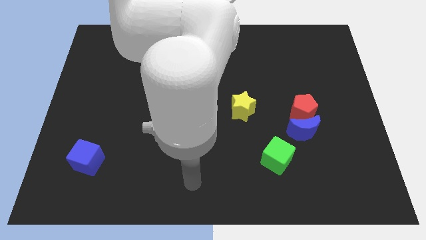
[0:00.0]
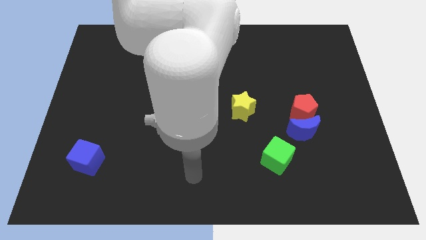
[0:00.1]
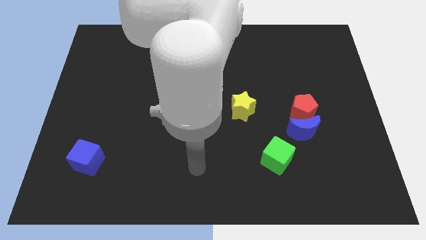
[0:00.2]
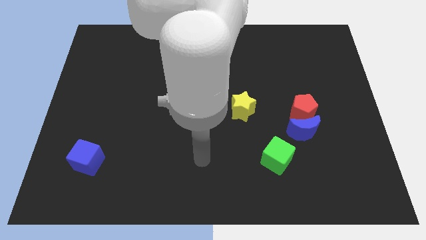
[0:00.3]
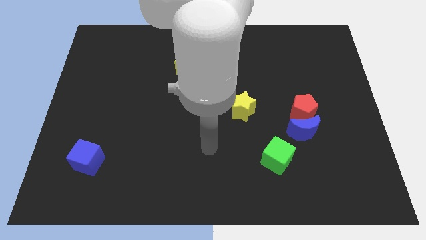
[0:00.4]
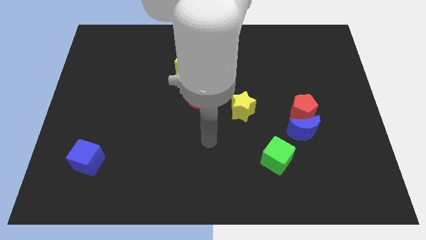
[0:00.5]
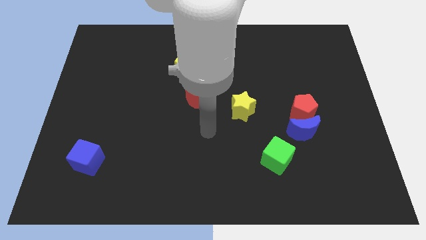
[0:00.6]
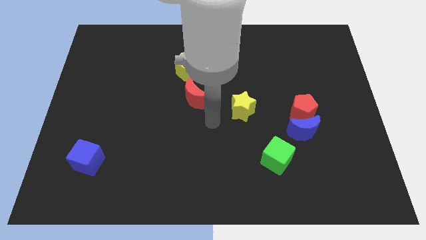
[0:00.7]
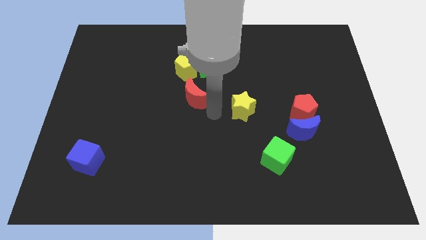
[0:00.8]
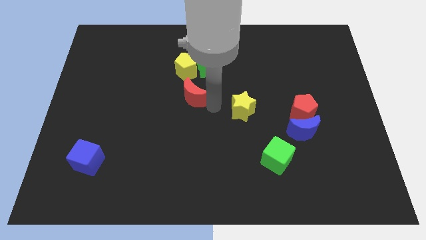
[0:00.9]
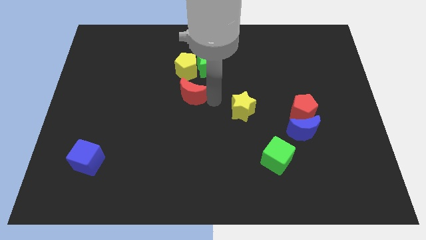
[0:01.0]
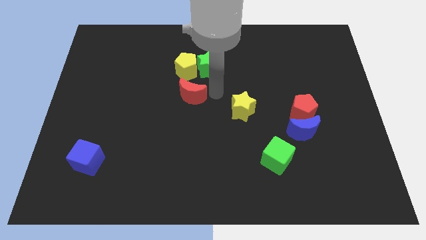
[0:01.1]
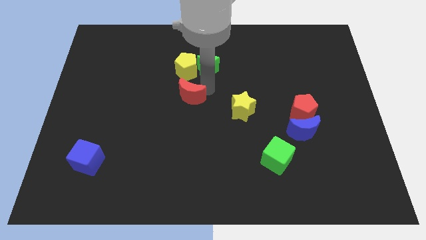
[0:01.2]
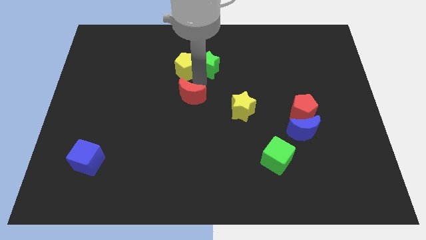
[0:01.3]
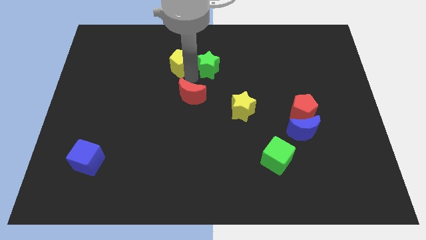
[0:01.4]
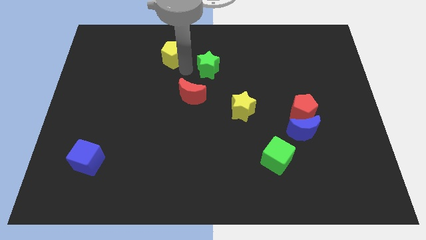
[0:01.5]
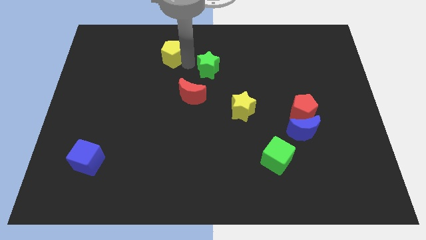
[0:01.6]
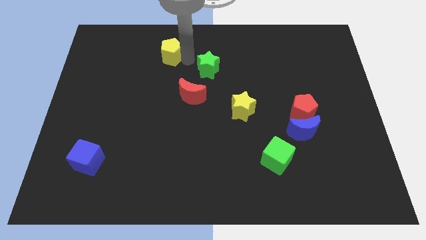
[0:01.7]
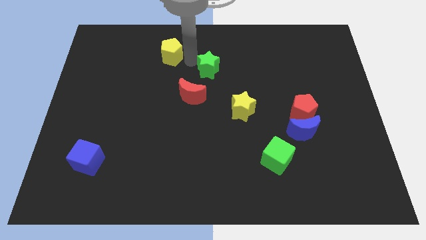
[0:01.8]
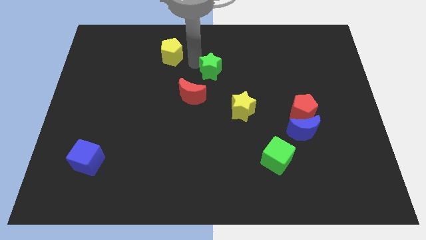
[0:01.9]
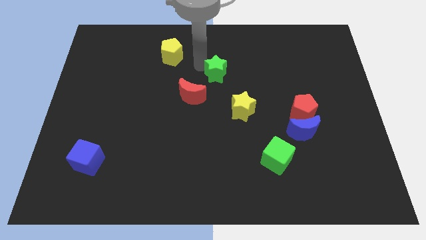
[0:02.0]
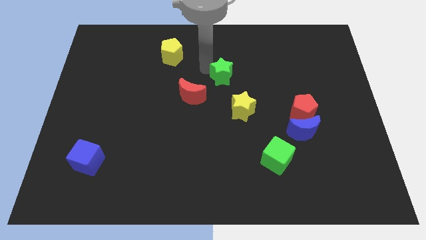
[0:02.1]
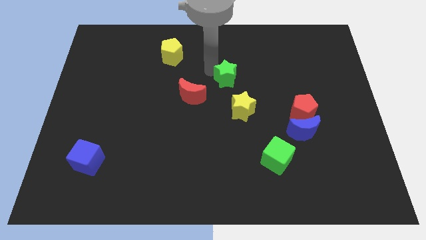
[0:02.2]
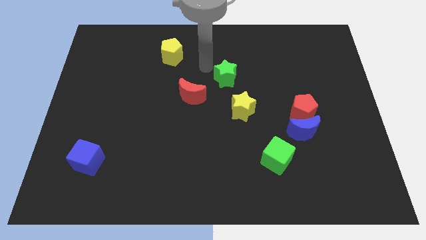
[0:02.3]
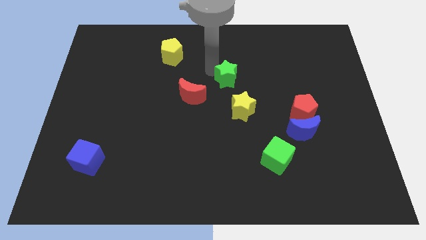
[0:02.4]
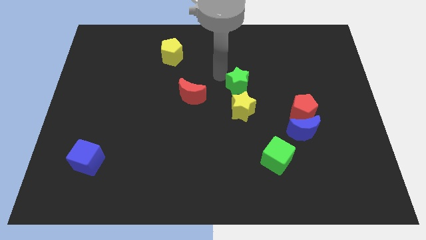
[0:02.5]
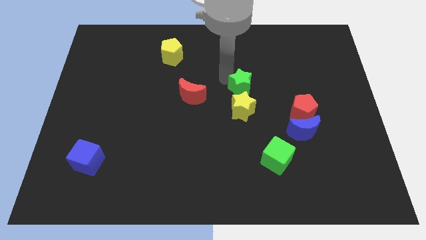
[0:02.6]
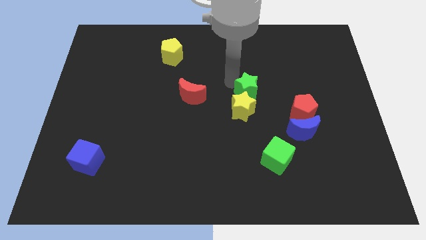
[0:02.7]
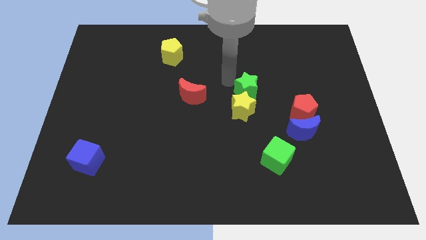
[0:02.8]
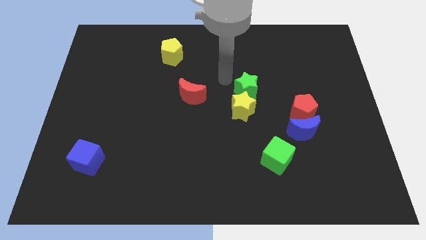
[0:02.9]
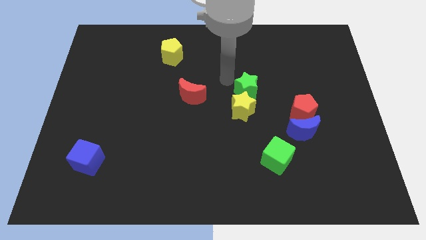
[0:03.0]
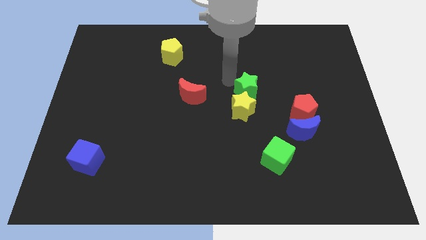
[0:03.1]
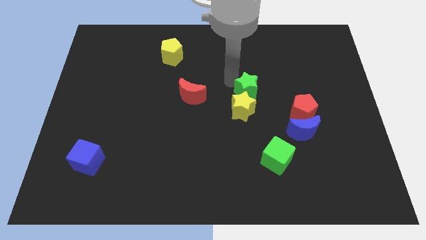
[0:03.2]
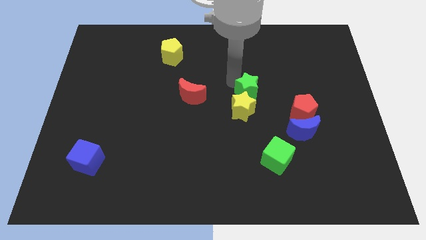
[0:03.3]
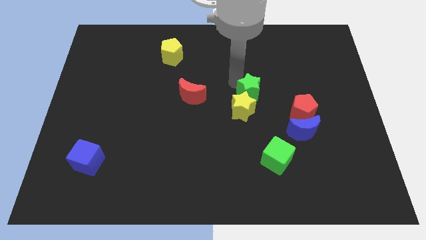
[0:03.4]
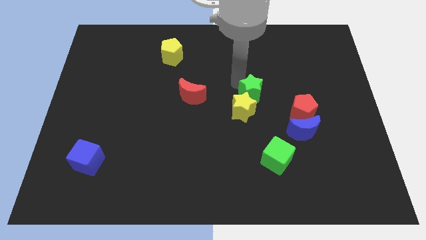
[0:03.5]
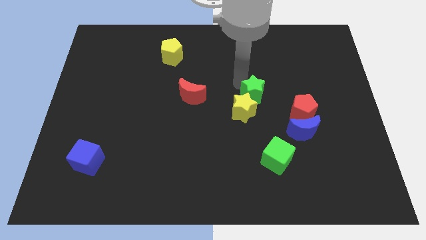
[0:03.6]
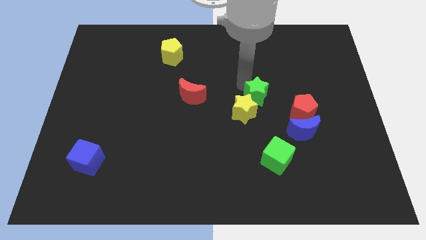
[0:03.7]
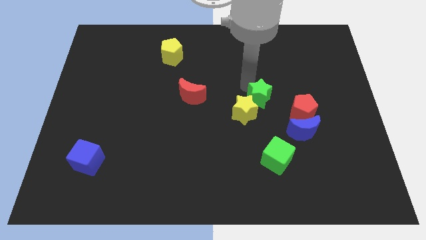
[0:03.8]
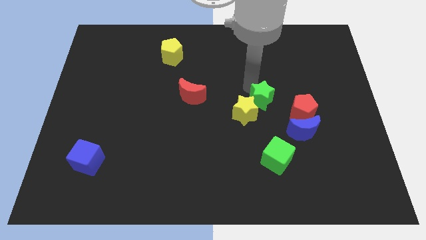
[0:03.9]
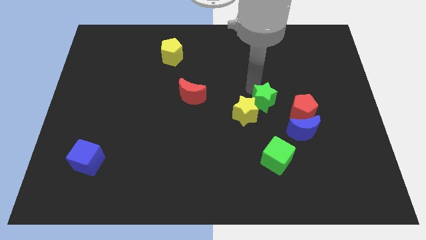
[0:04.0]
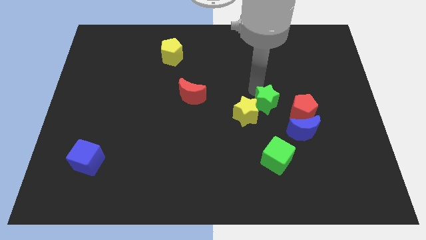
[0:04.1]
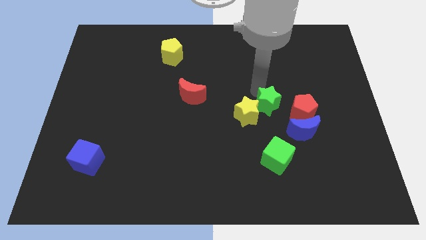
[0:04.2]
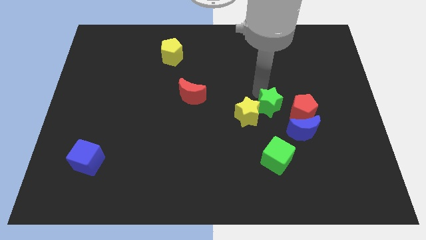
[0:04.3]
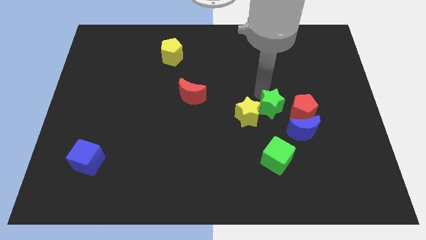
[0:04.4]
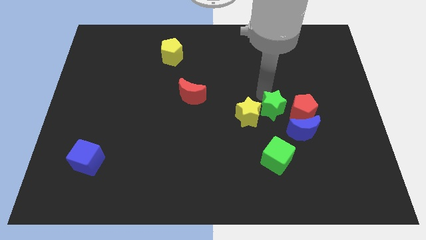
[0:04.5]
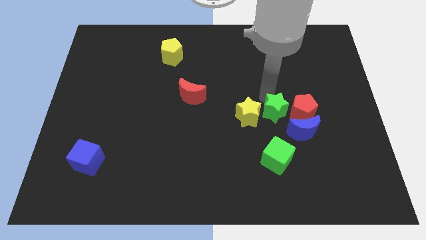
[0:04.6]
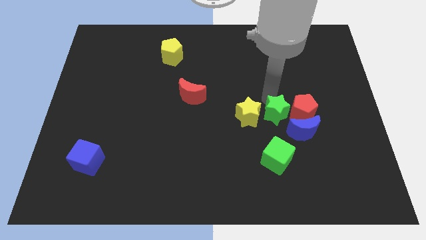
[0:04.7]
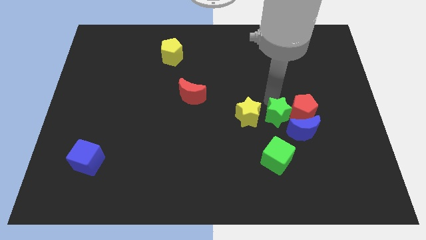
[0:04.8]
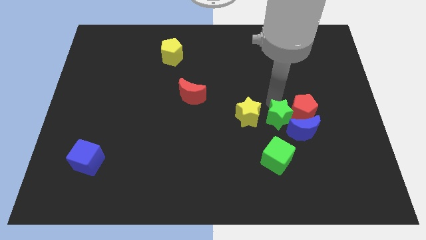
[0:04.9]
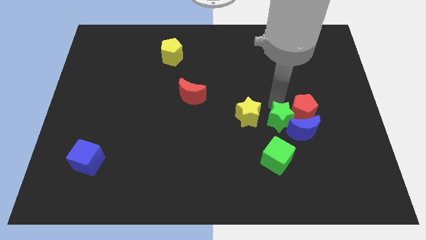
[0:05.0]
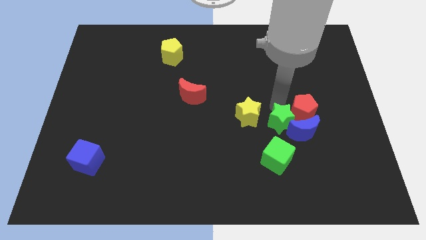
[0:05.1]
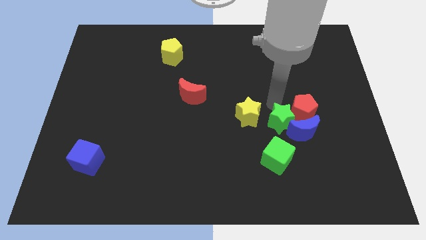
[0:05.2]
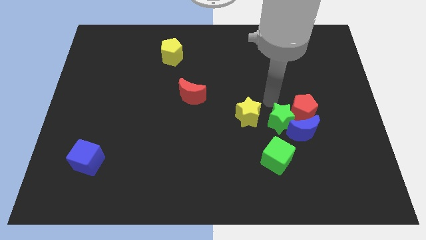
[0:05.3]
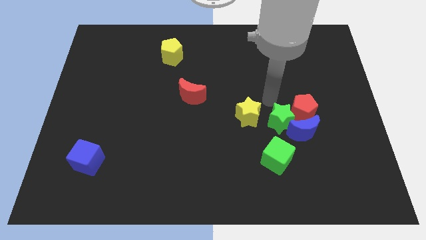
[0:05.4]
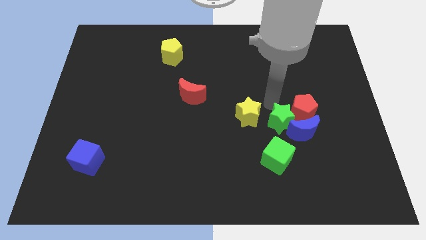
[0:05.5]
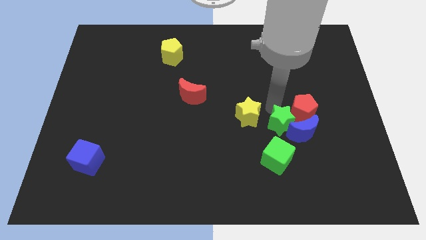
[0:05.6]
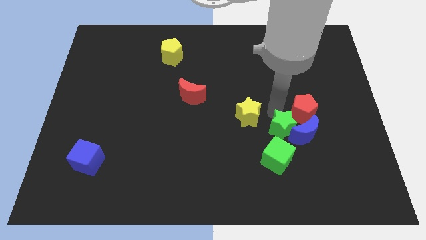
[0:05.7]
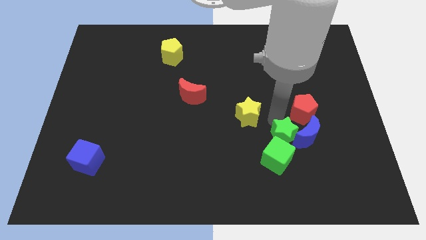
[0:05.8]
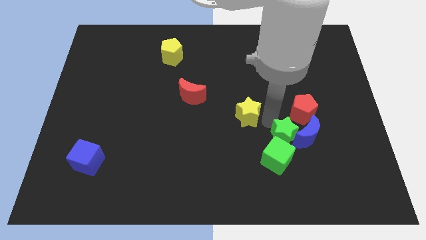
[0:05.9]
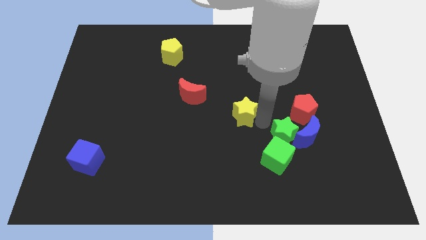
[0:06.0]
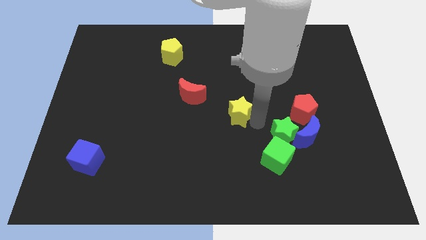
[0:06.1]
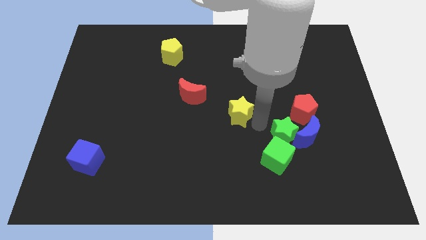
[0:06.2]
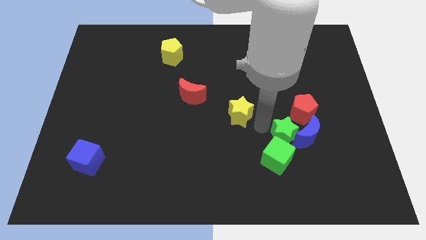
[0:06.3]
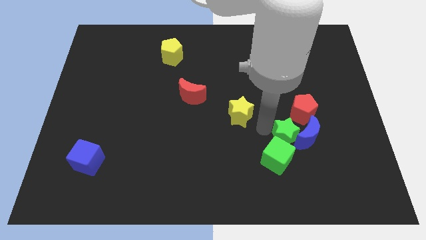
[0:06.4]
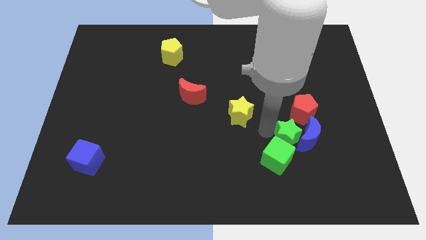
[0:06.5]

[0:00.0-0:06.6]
move the green star to the bottom side of the red pentagon
